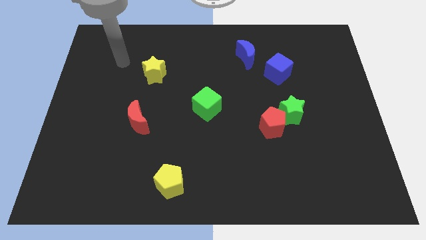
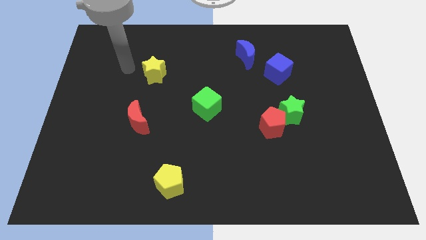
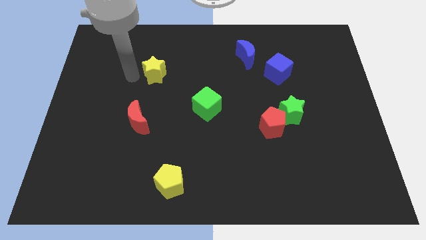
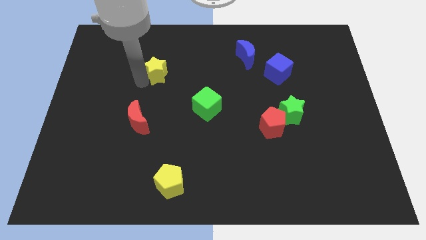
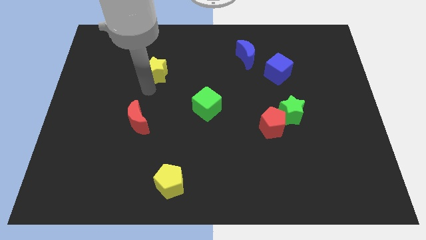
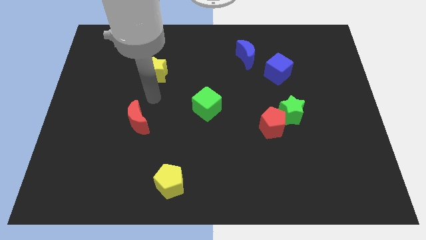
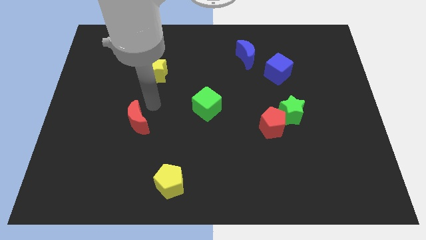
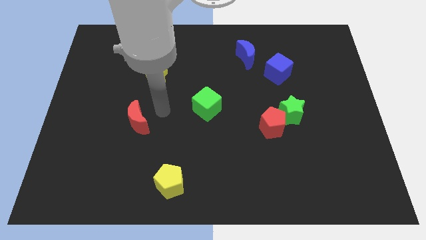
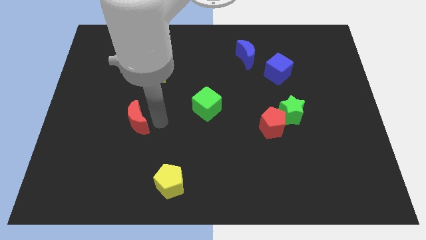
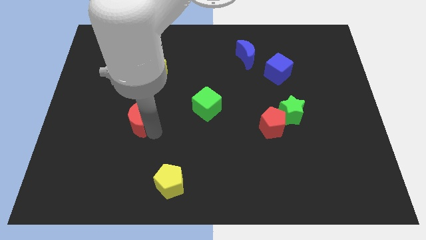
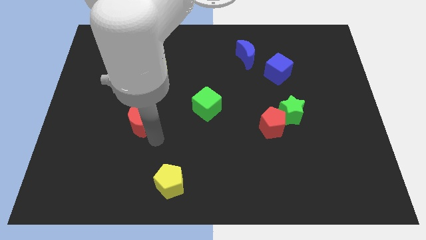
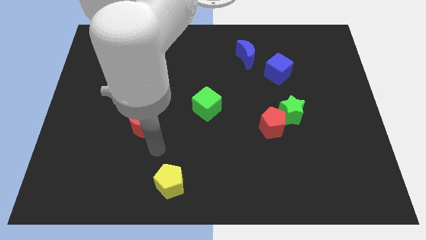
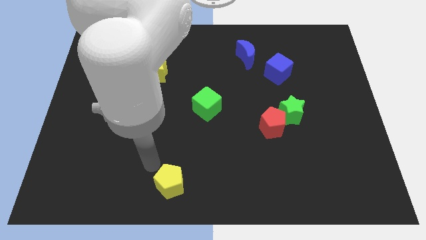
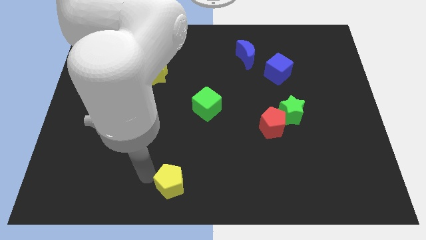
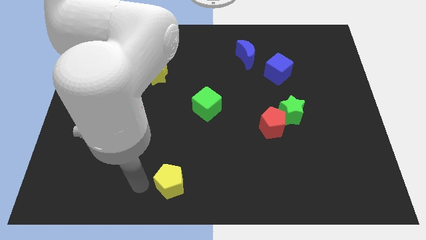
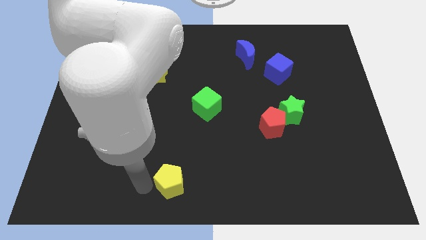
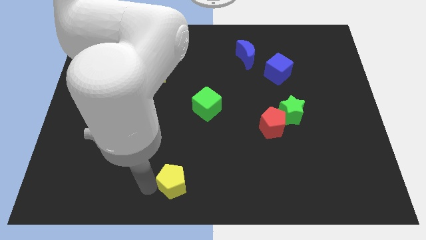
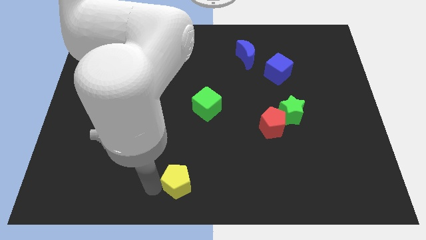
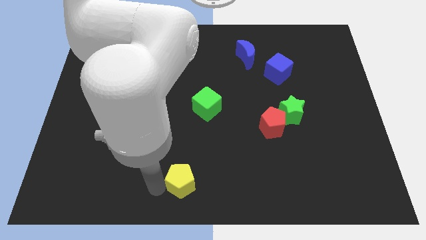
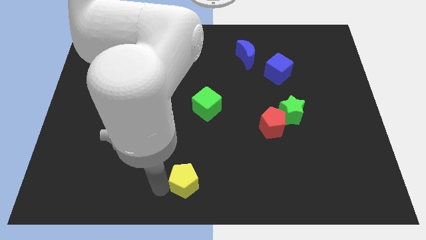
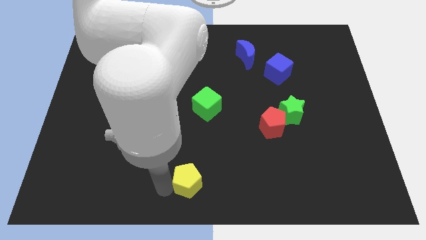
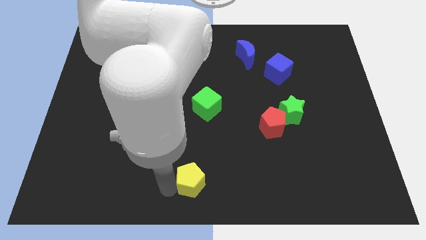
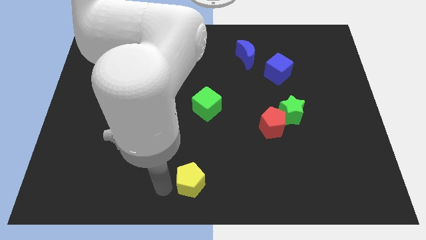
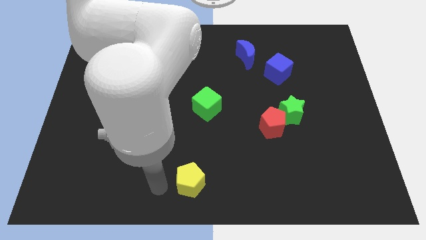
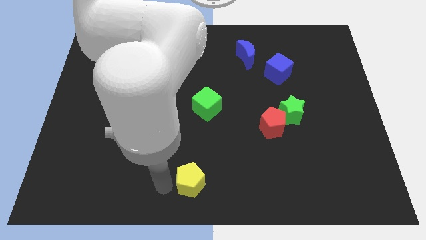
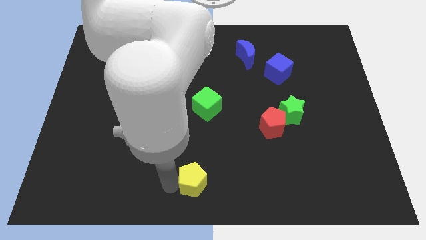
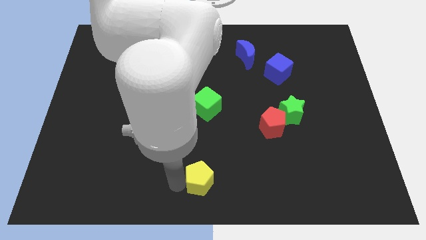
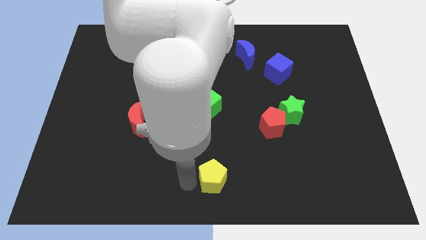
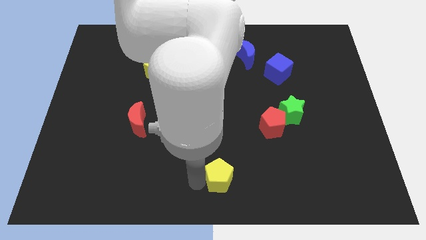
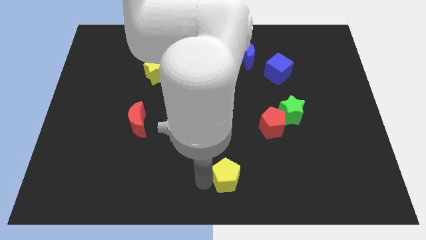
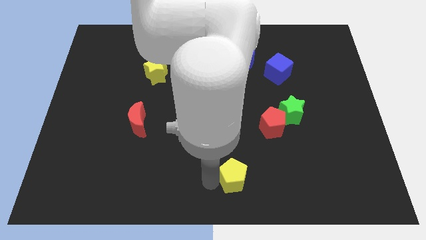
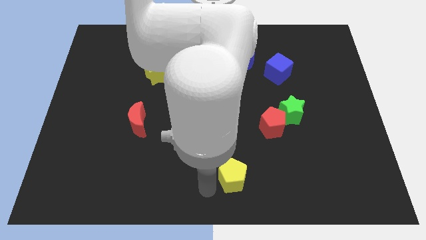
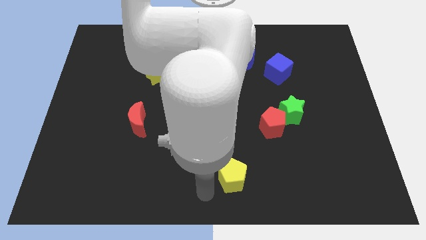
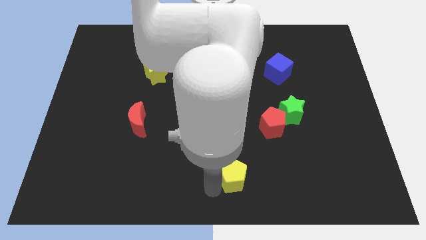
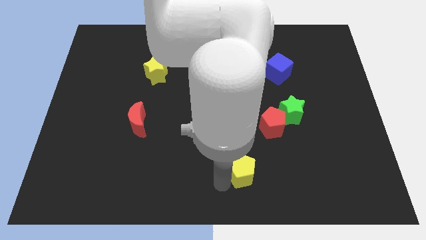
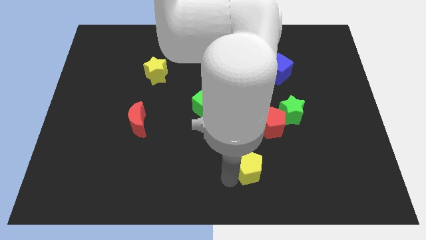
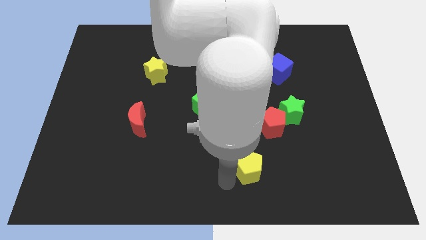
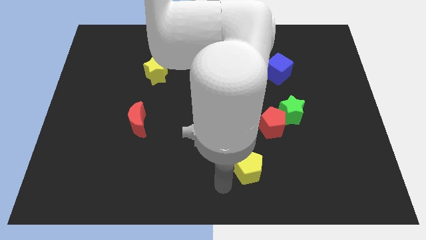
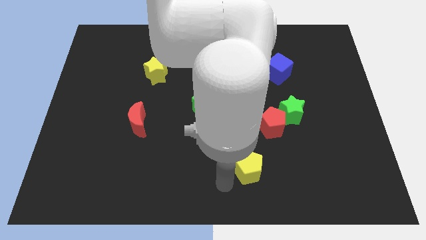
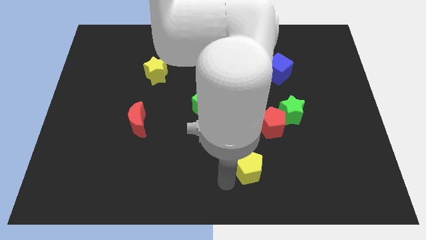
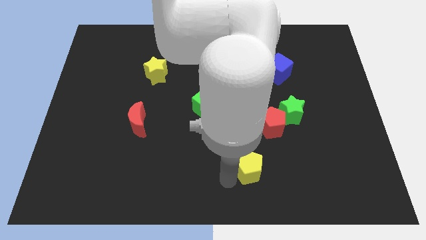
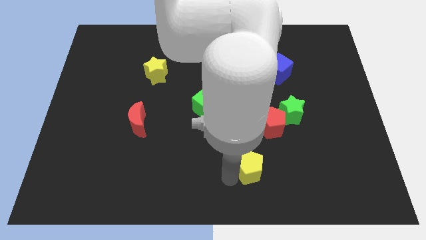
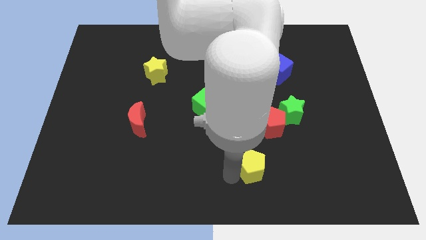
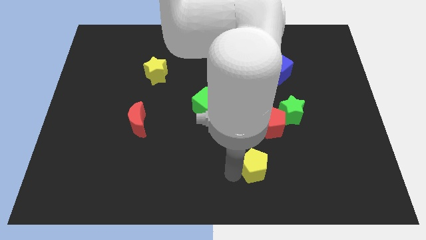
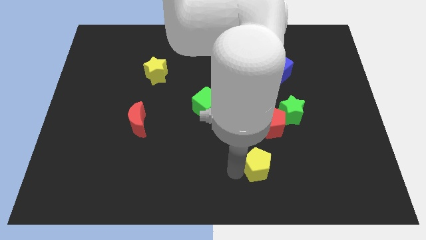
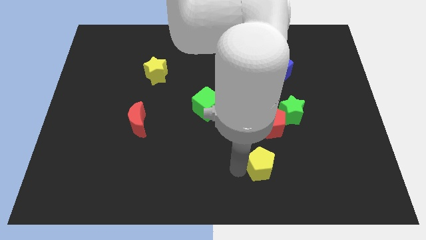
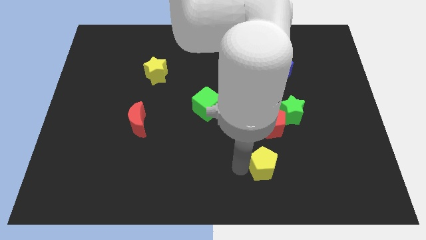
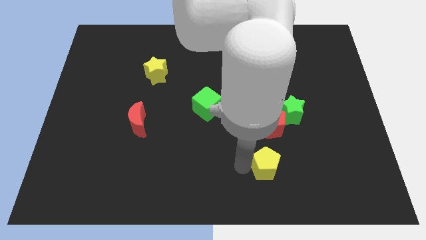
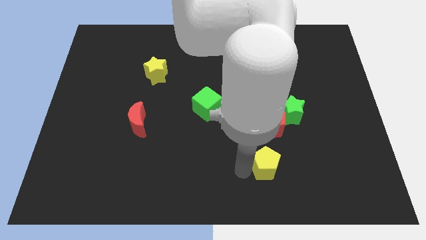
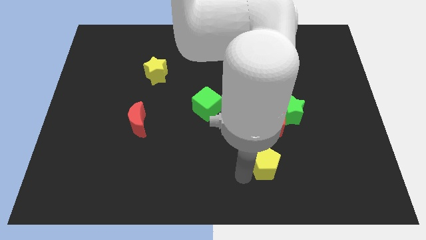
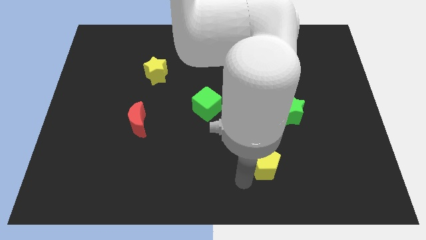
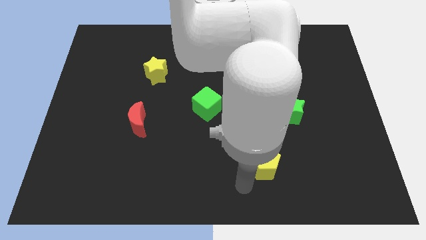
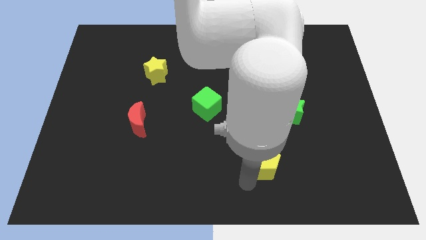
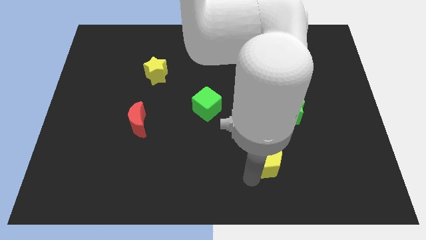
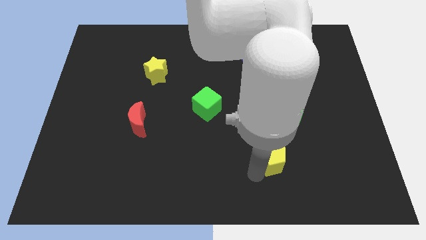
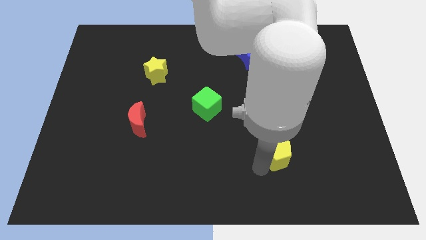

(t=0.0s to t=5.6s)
push the yellow pentagon to the bottom of the green star

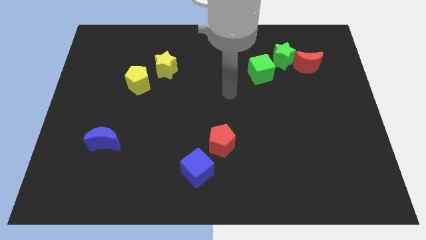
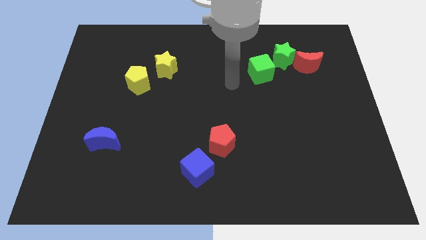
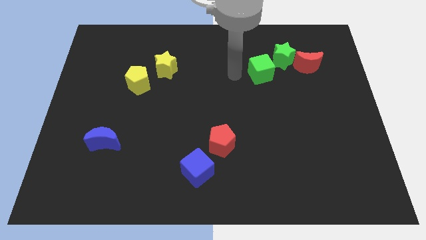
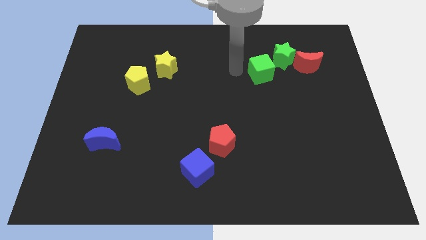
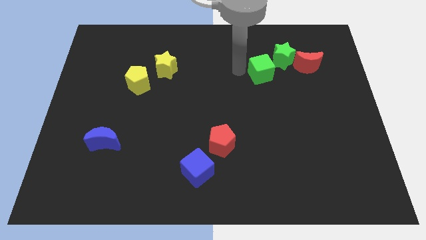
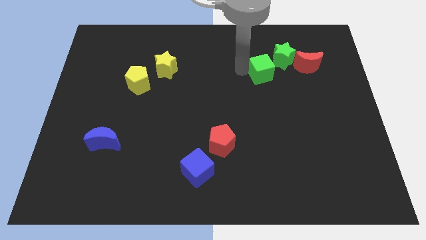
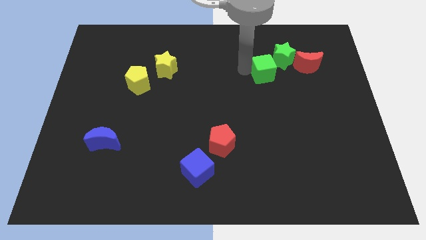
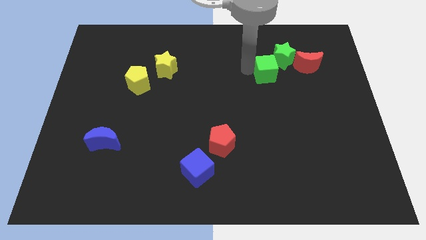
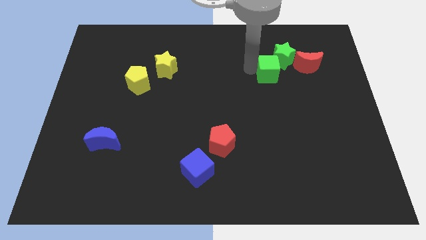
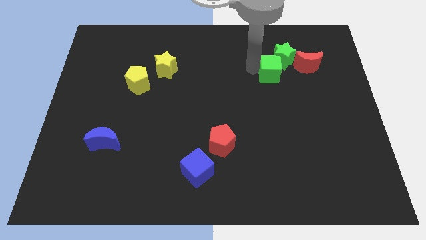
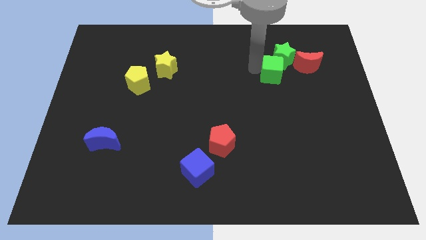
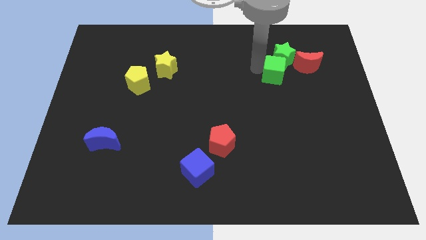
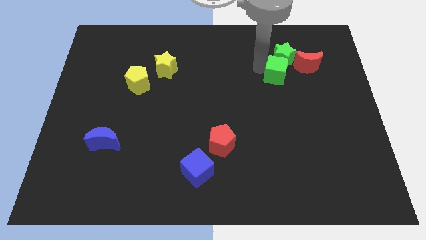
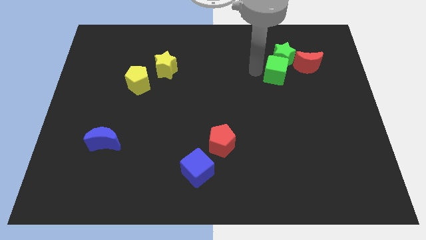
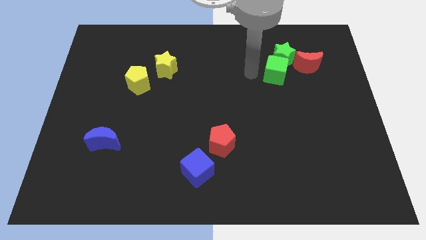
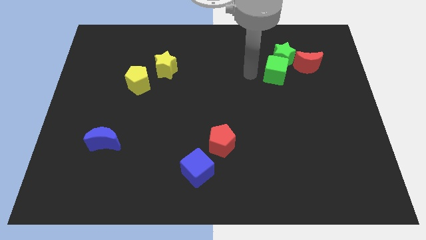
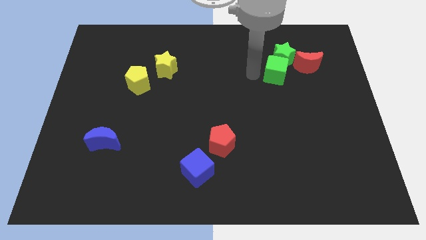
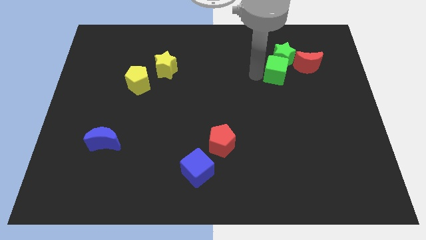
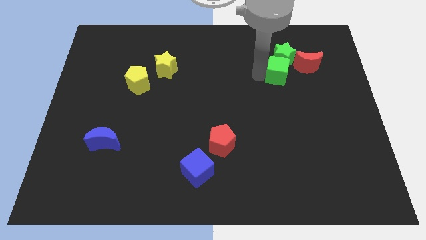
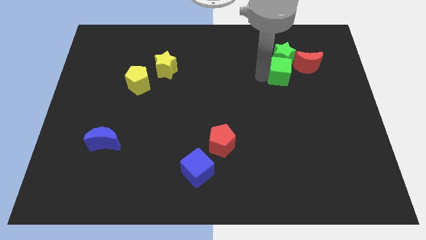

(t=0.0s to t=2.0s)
put the green cube diagonally down and to the right of the green star
